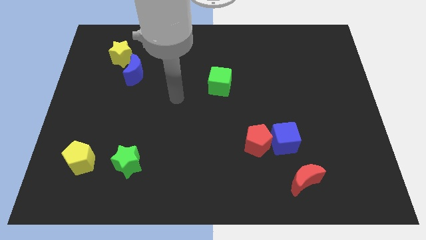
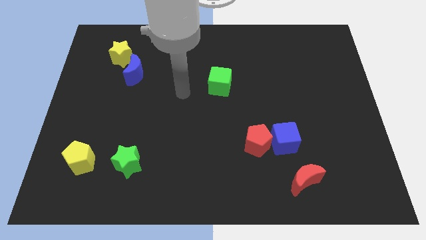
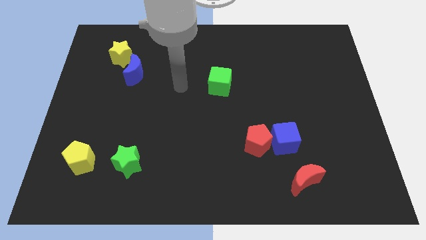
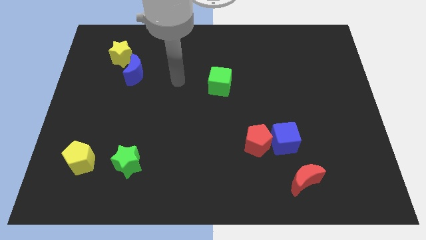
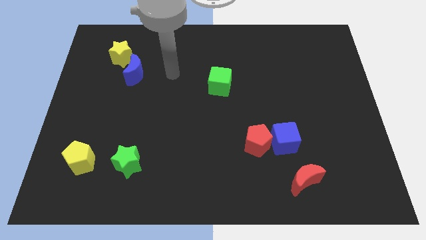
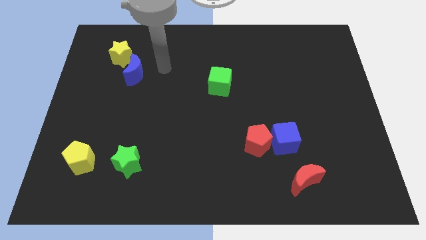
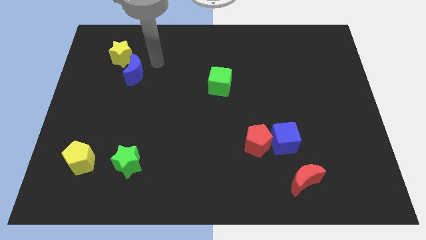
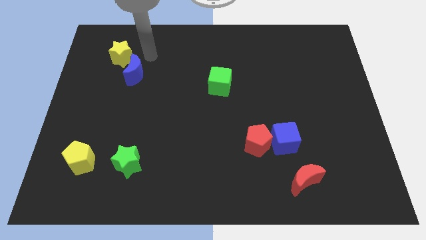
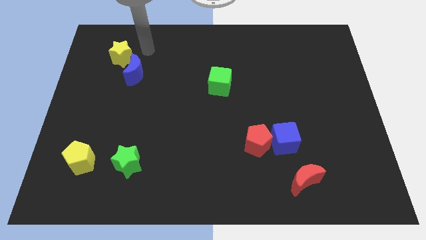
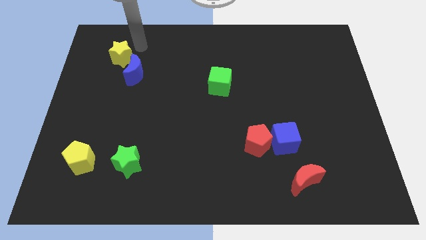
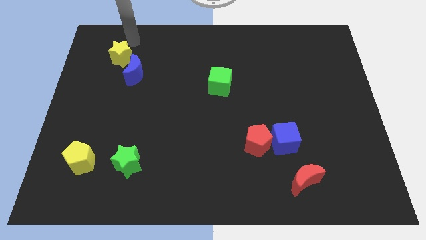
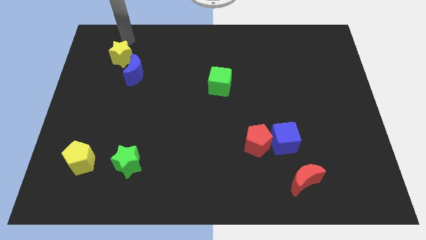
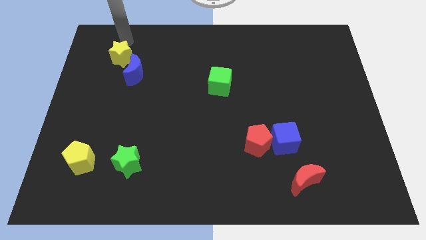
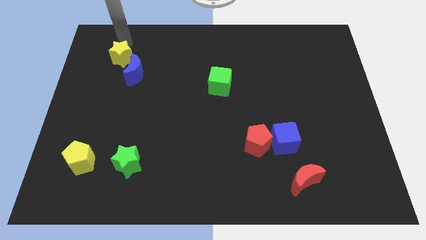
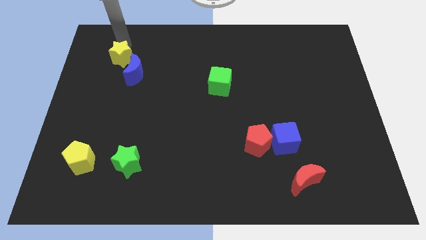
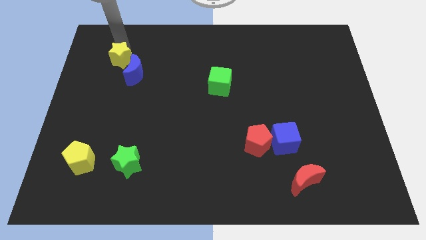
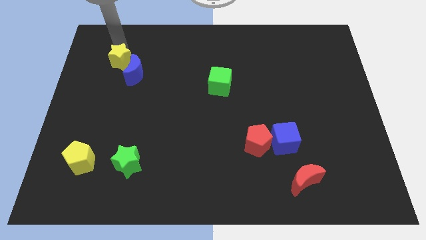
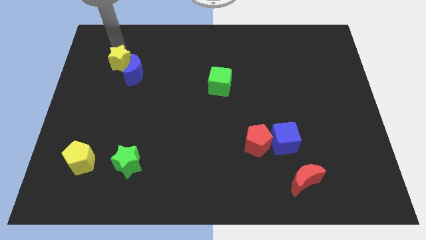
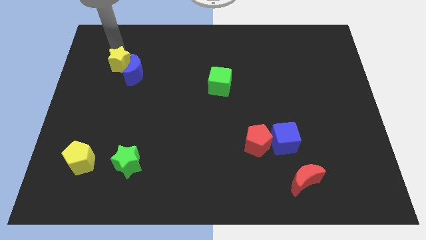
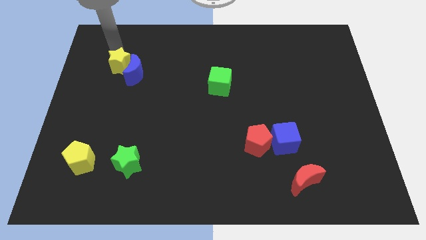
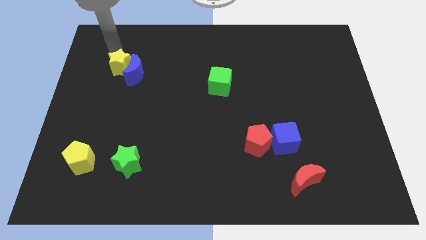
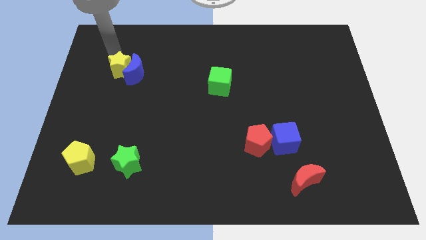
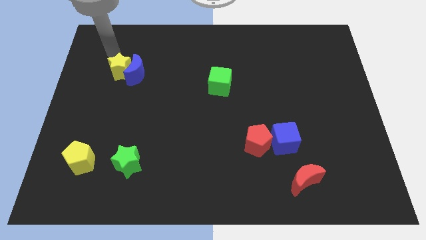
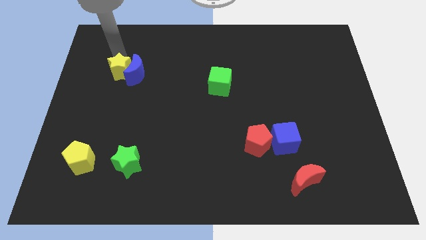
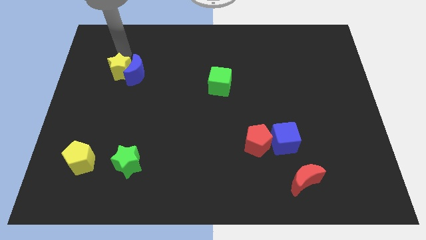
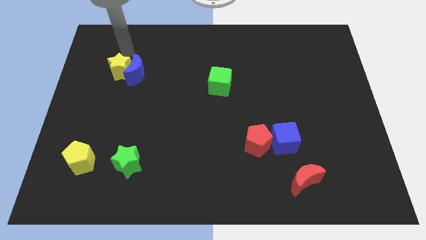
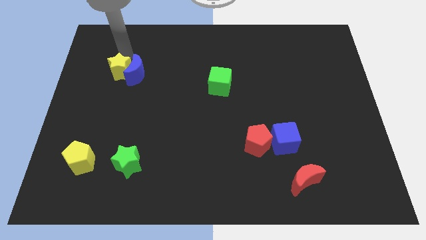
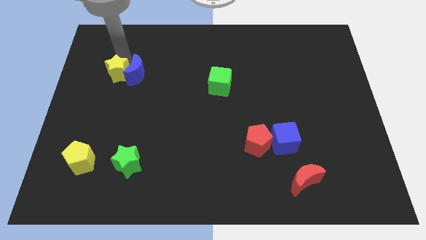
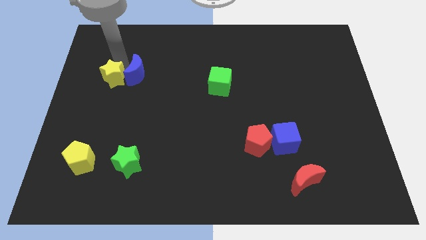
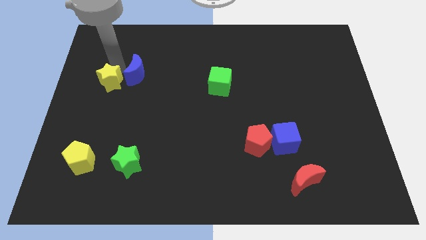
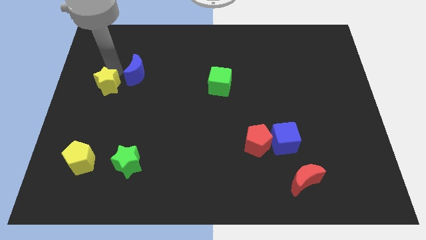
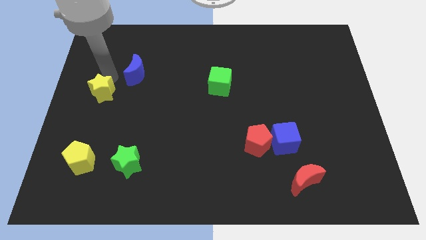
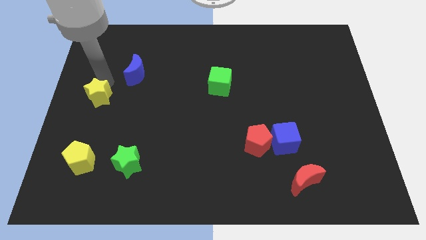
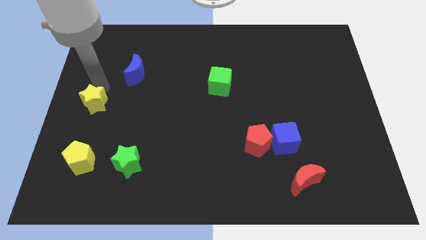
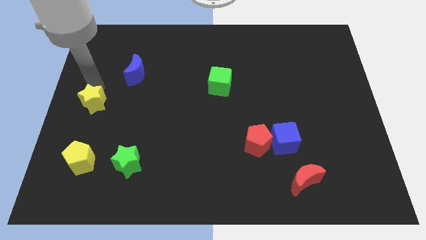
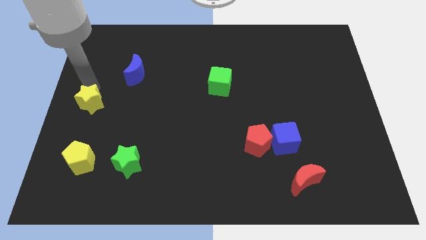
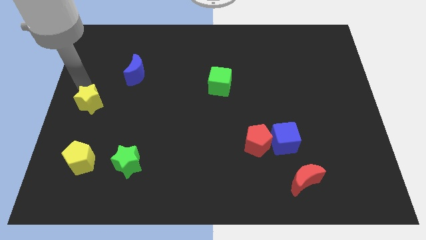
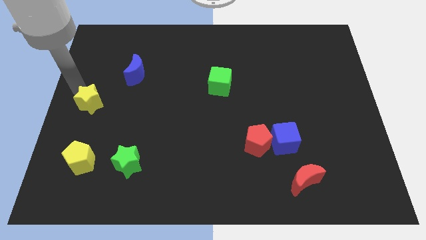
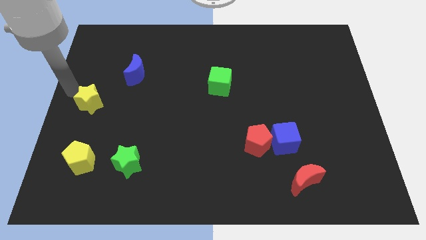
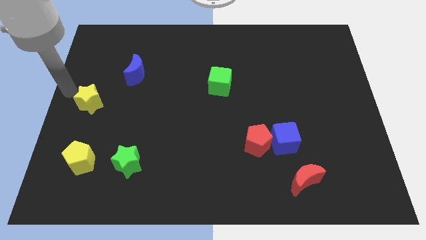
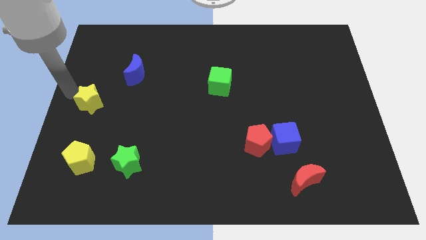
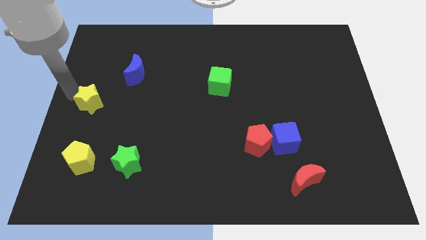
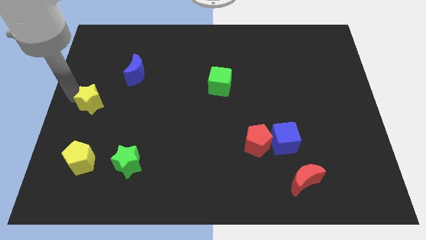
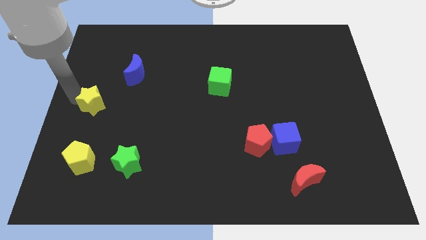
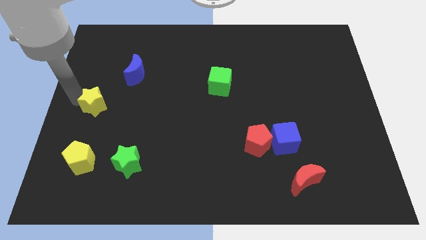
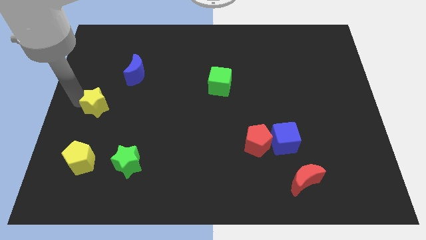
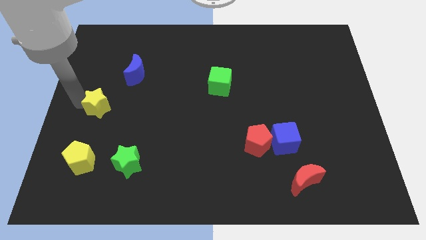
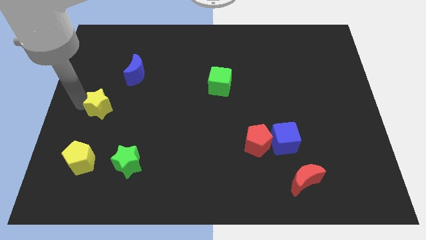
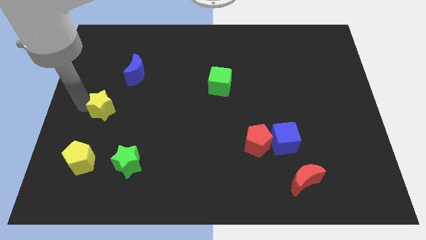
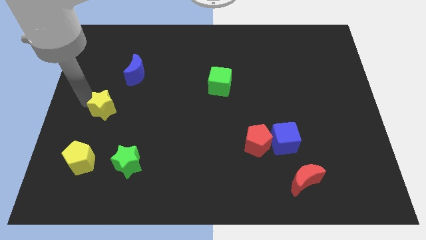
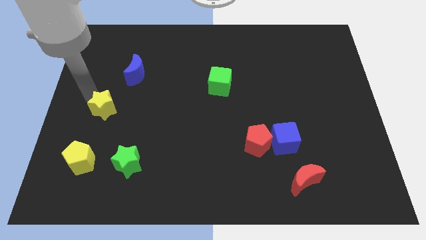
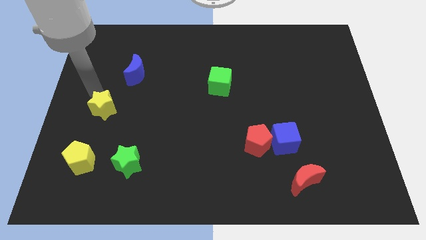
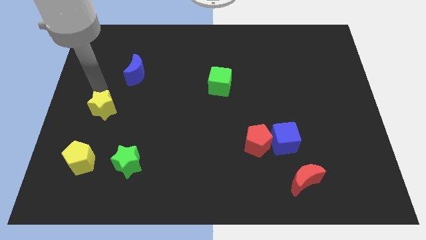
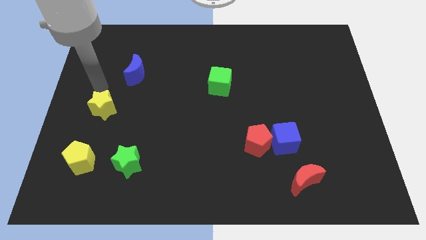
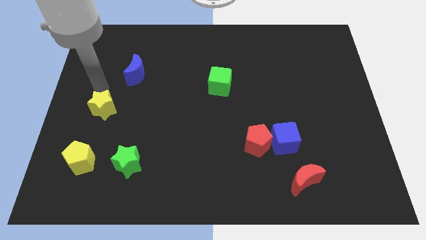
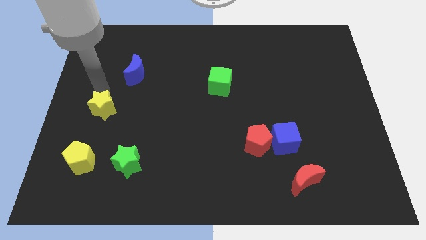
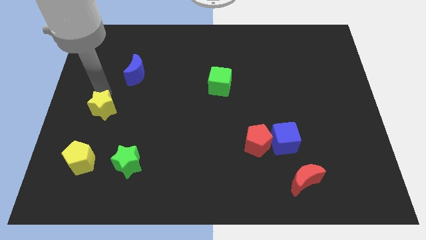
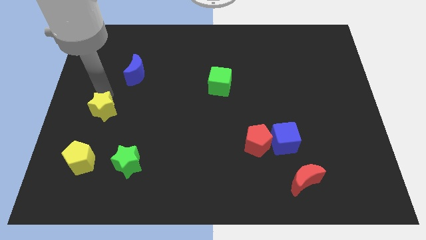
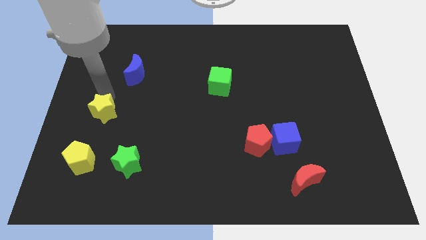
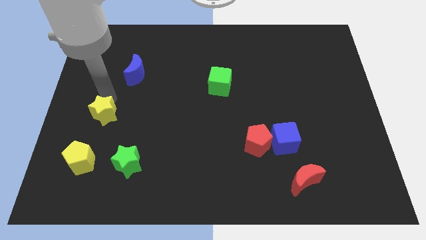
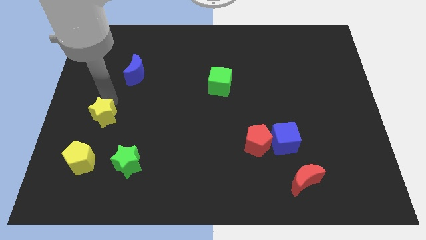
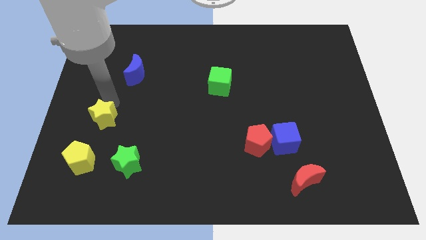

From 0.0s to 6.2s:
push the yellow star downwards

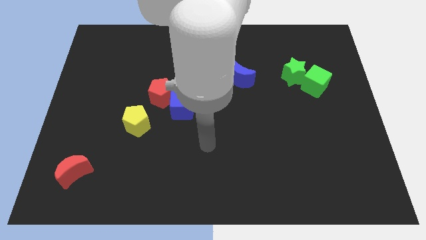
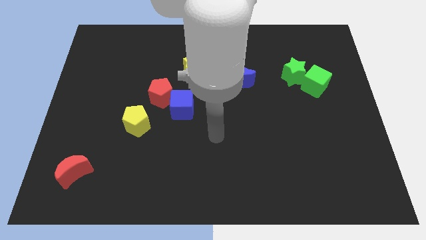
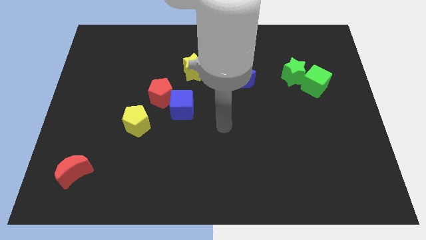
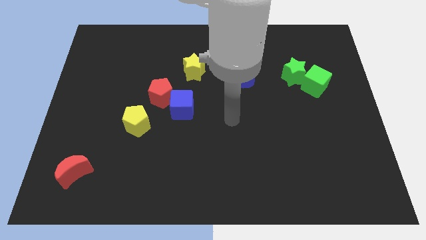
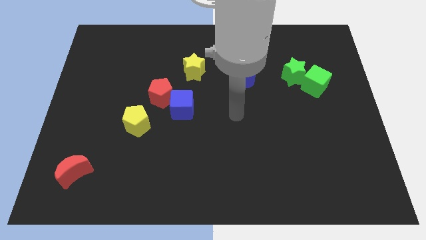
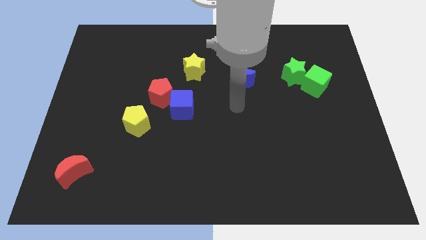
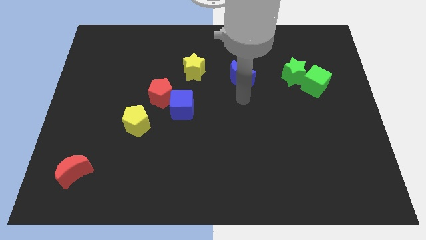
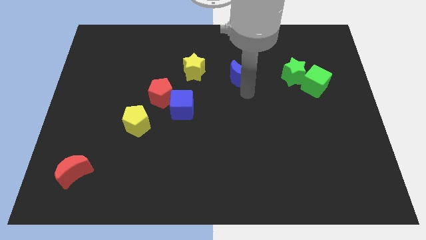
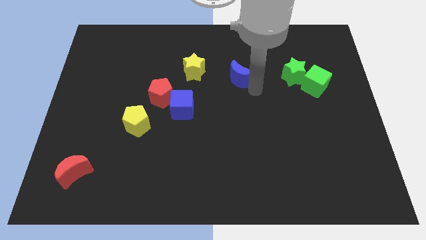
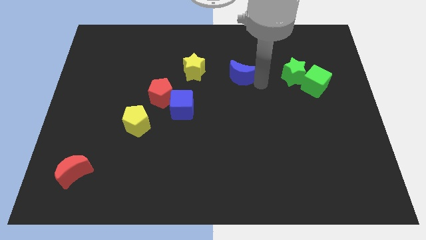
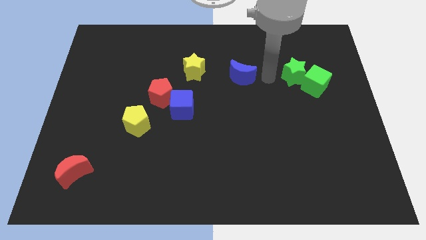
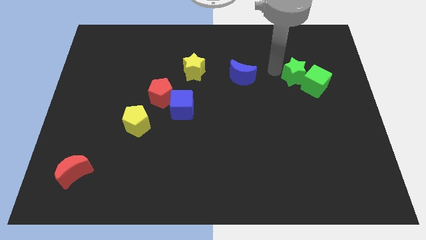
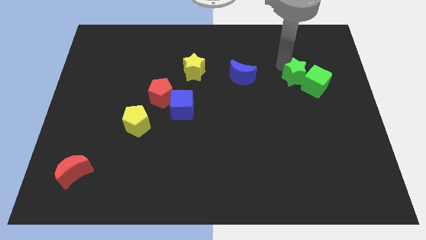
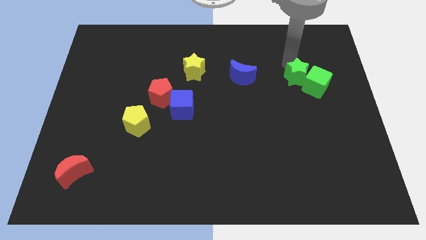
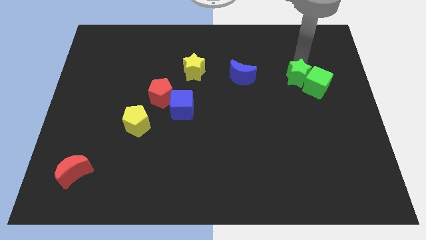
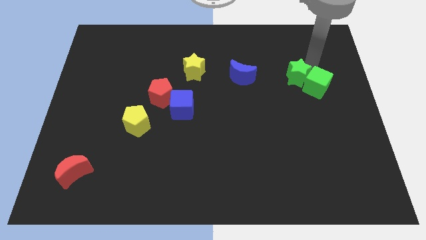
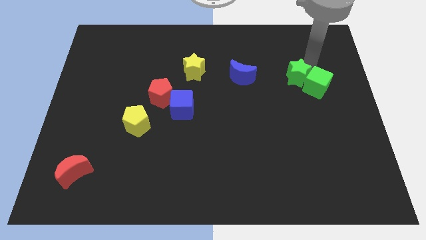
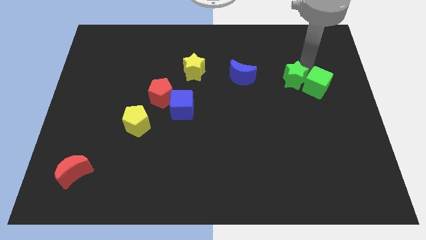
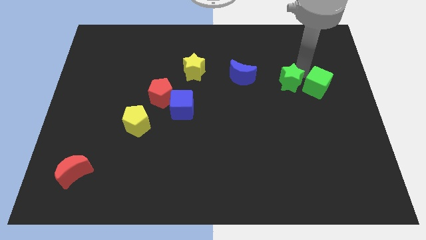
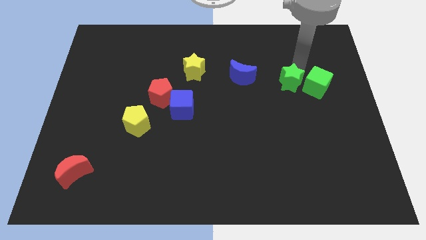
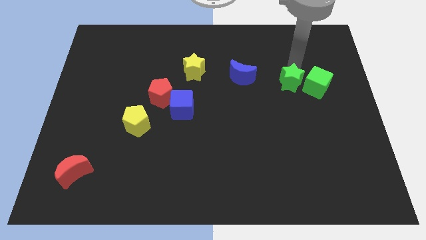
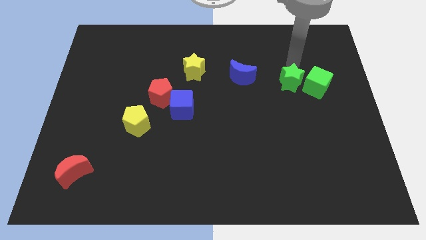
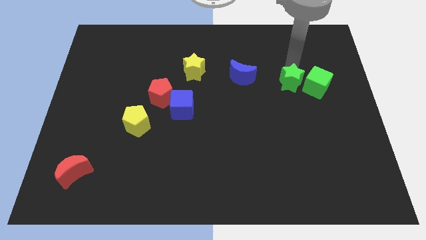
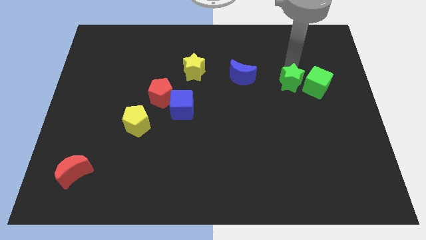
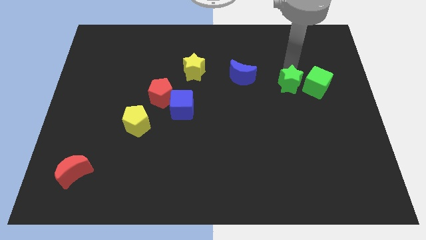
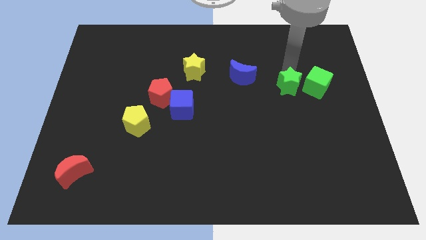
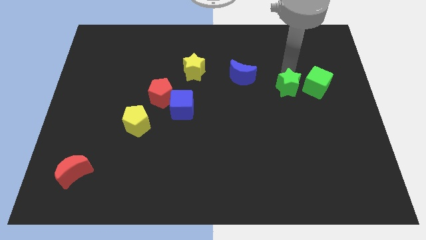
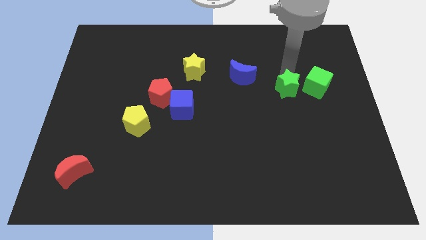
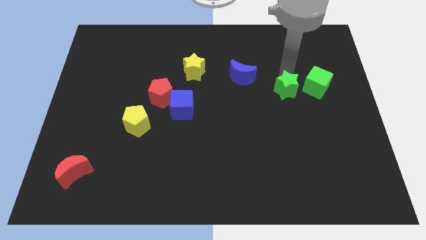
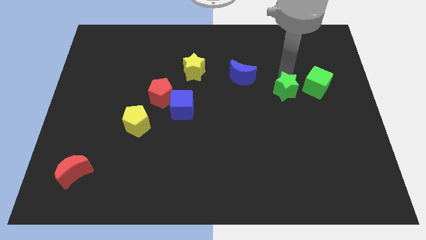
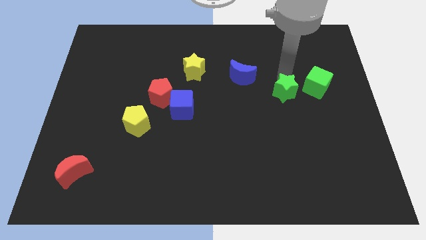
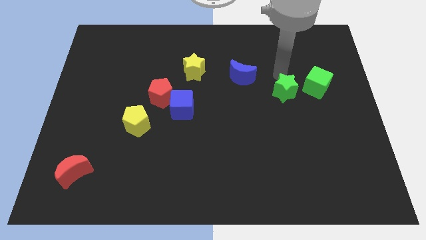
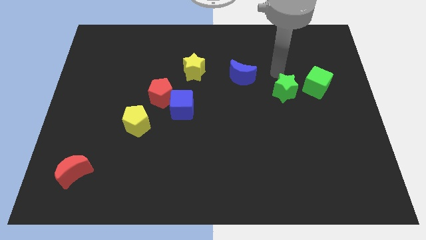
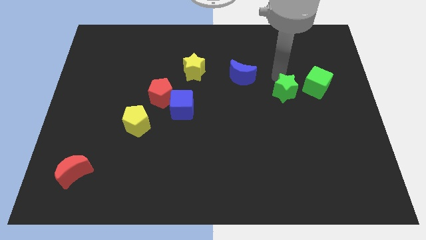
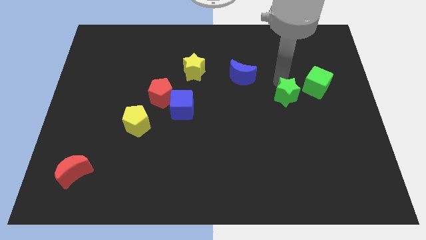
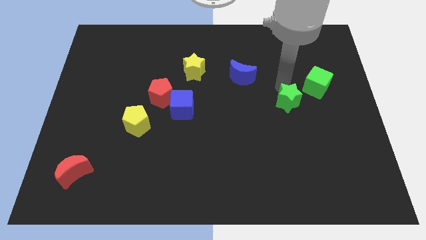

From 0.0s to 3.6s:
slightly push the green star downwards
